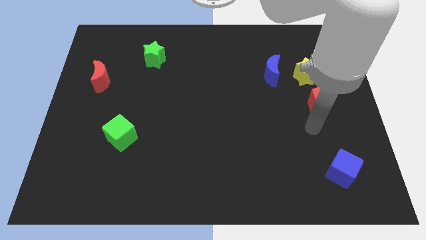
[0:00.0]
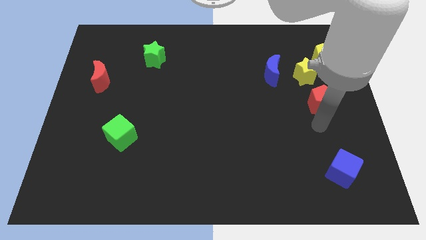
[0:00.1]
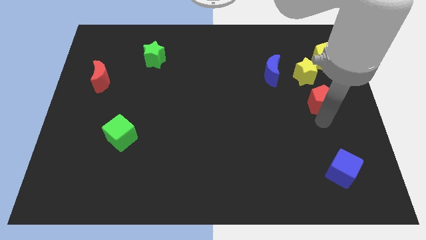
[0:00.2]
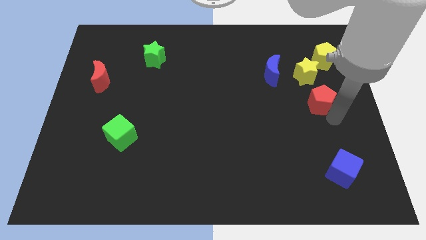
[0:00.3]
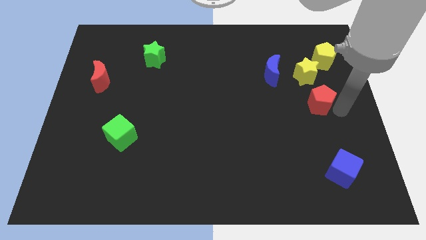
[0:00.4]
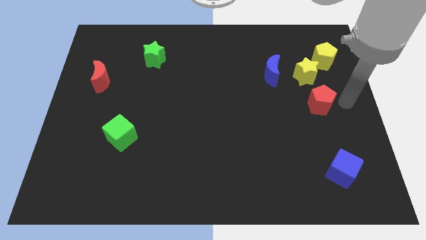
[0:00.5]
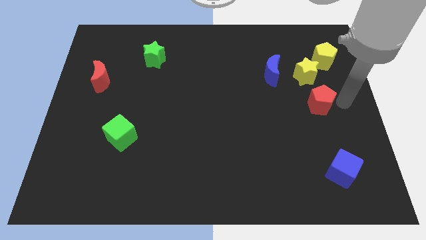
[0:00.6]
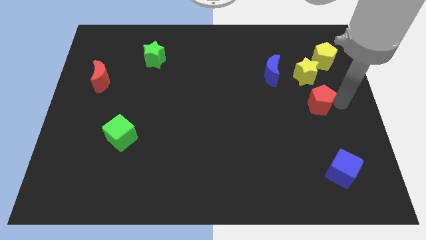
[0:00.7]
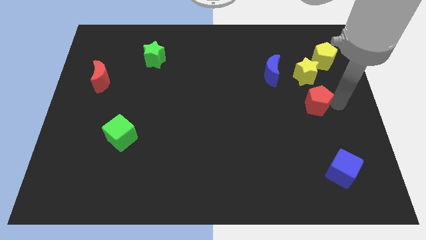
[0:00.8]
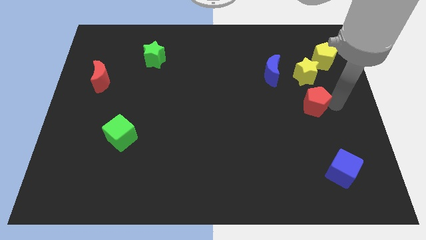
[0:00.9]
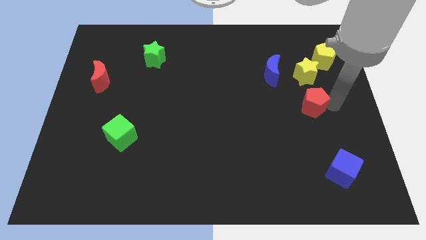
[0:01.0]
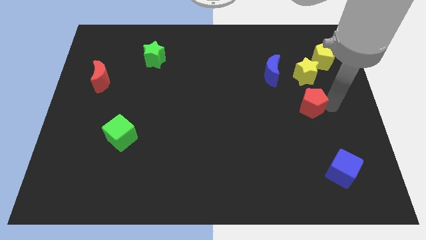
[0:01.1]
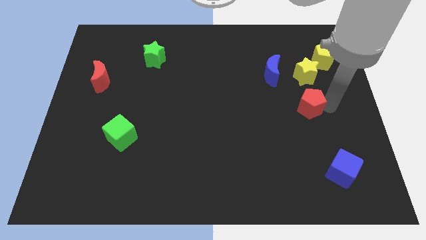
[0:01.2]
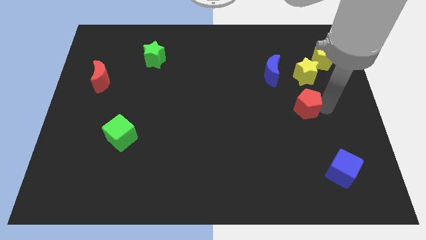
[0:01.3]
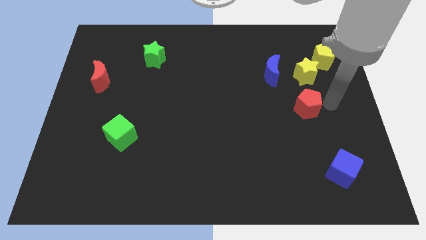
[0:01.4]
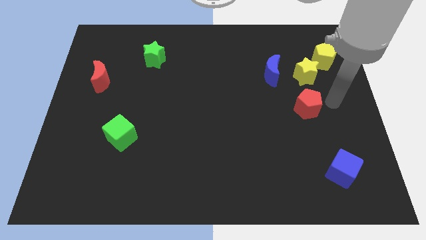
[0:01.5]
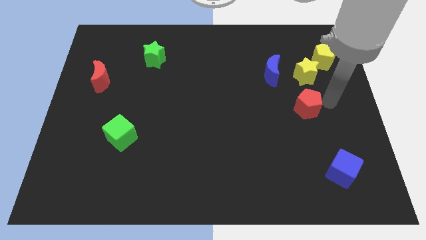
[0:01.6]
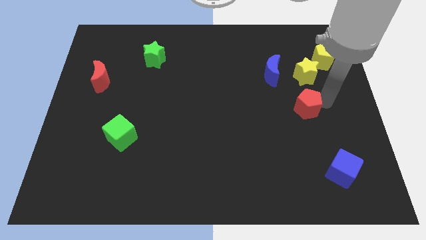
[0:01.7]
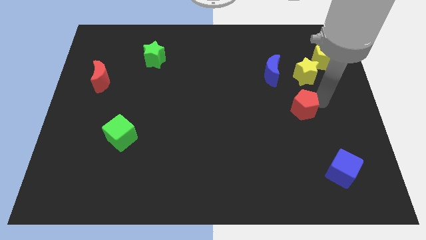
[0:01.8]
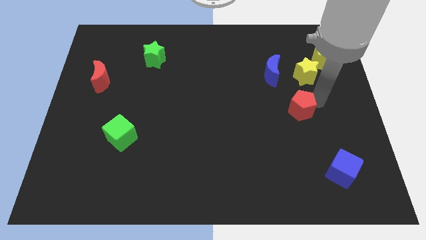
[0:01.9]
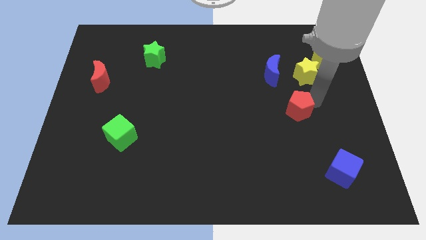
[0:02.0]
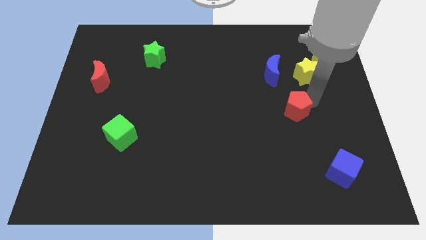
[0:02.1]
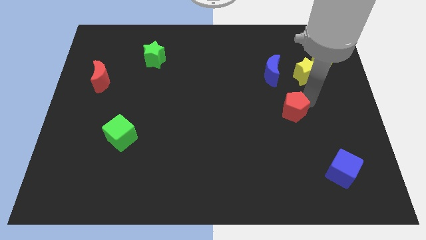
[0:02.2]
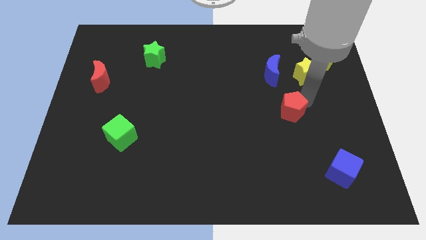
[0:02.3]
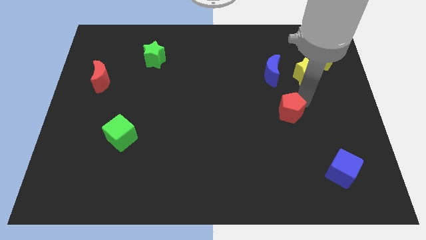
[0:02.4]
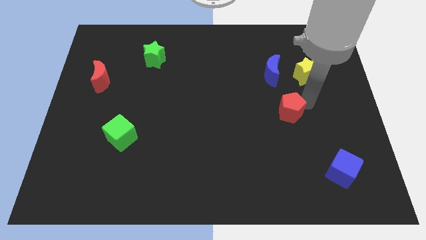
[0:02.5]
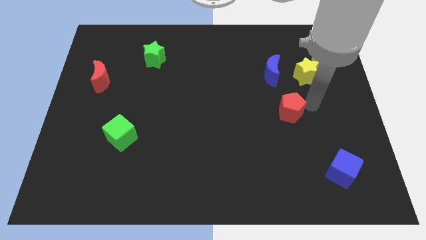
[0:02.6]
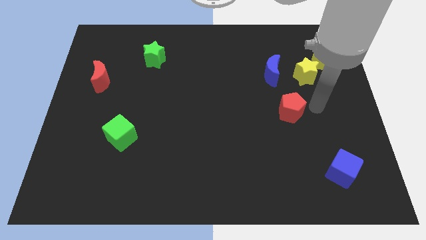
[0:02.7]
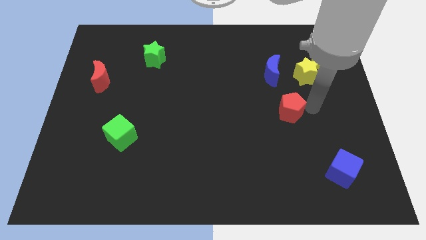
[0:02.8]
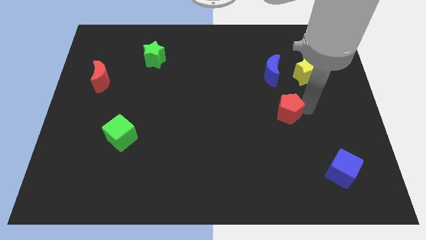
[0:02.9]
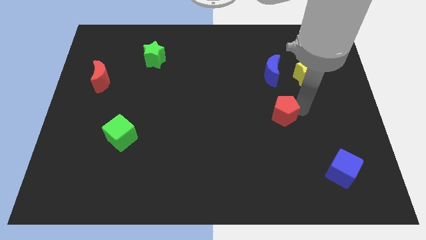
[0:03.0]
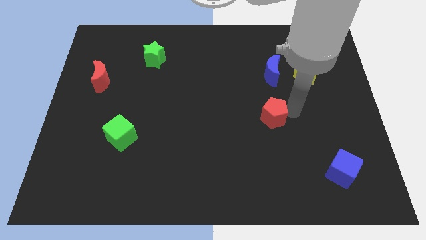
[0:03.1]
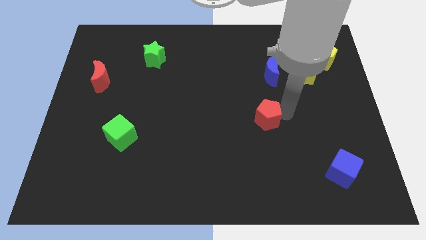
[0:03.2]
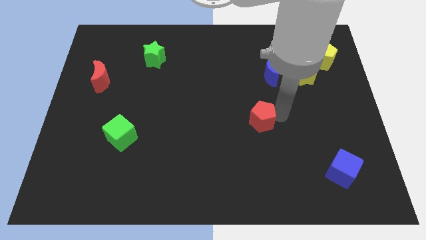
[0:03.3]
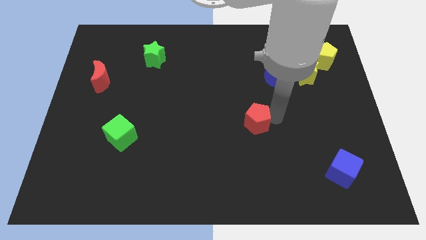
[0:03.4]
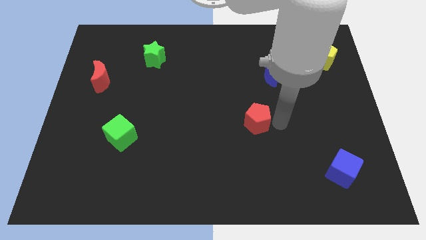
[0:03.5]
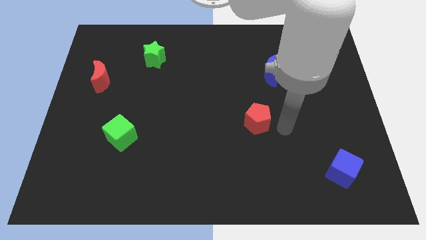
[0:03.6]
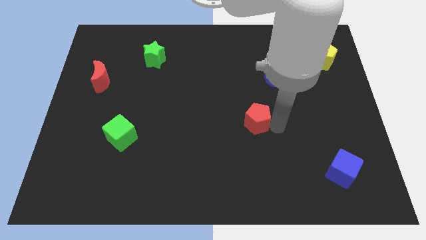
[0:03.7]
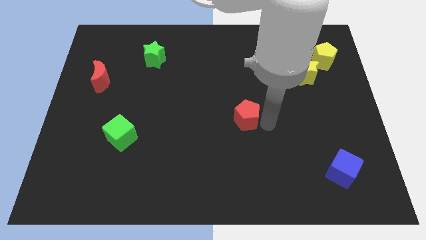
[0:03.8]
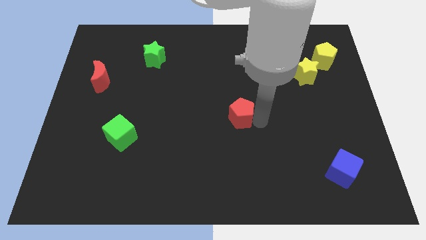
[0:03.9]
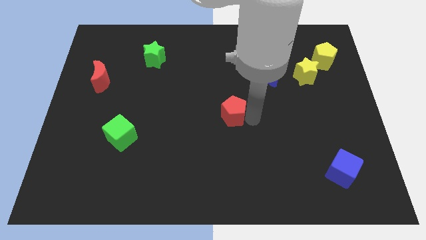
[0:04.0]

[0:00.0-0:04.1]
push the red pentagon left

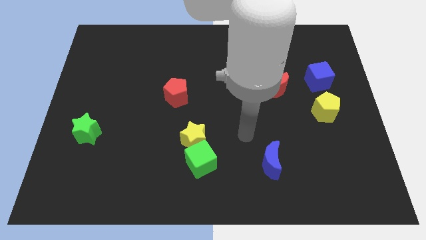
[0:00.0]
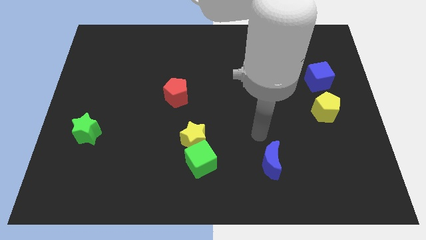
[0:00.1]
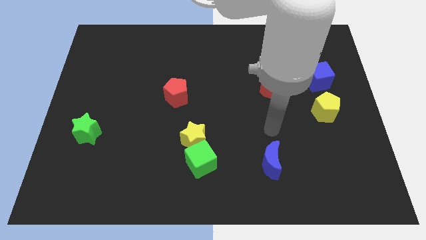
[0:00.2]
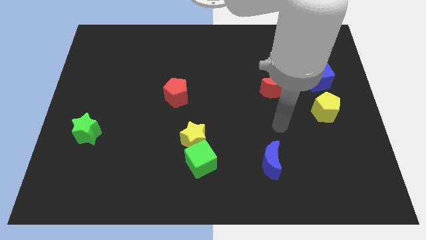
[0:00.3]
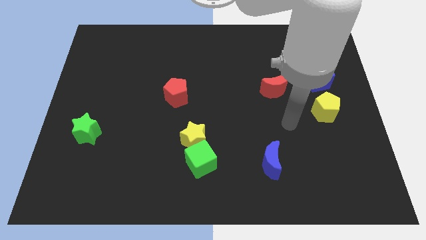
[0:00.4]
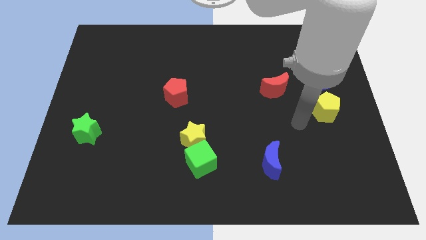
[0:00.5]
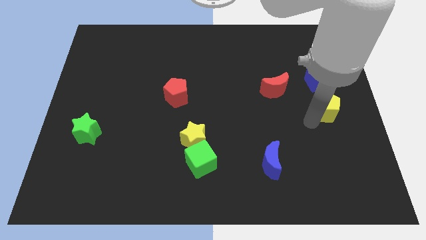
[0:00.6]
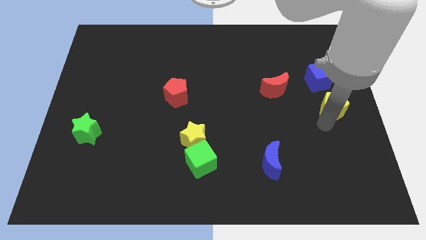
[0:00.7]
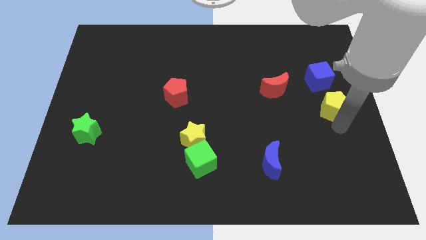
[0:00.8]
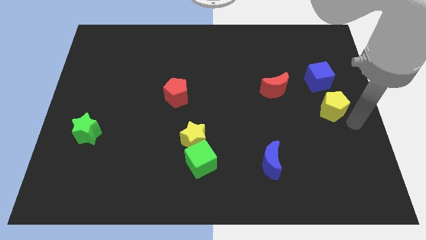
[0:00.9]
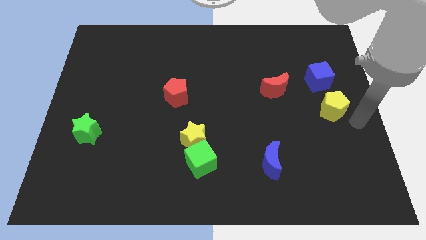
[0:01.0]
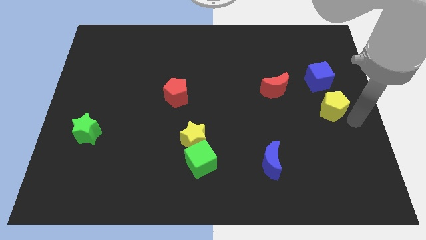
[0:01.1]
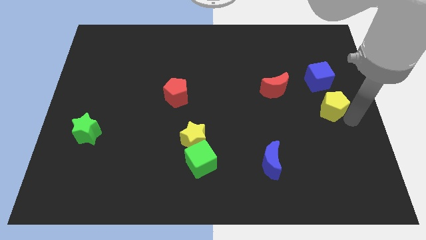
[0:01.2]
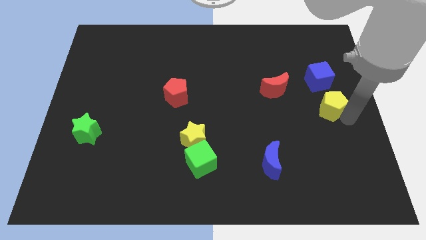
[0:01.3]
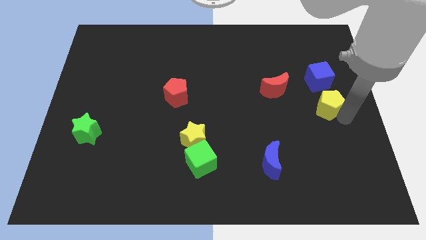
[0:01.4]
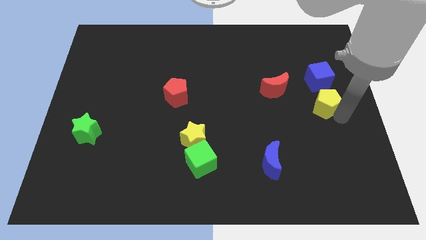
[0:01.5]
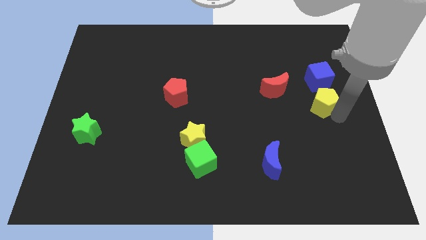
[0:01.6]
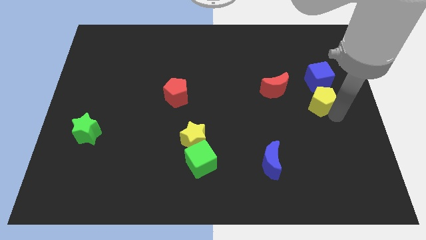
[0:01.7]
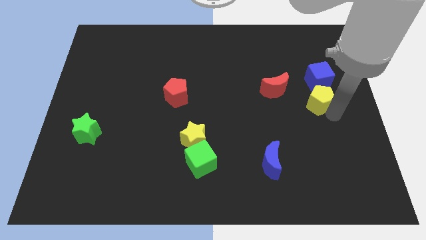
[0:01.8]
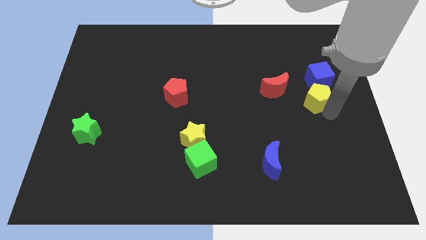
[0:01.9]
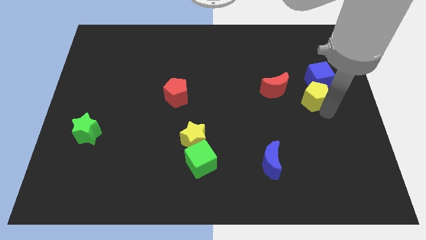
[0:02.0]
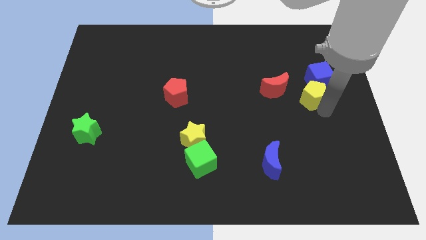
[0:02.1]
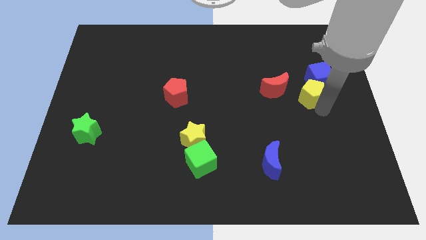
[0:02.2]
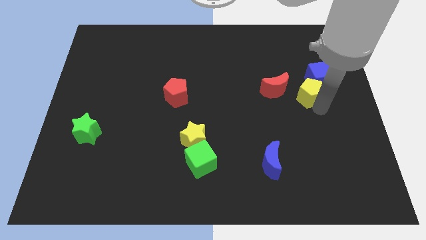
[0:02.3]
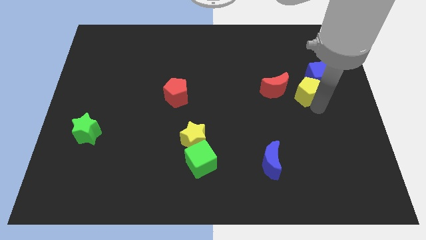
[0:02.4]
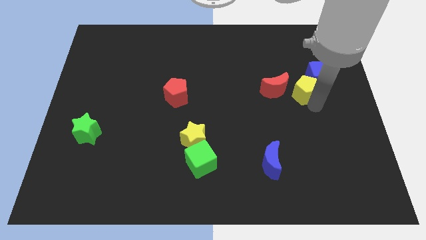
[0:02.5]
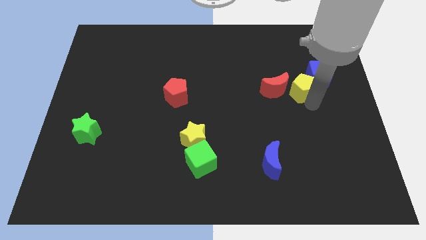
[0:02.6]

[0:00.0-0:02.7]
slide the yellow pentagon a bit upwards and left

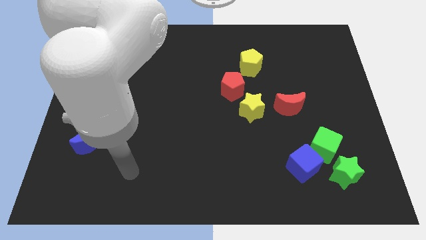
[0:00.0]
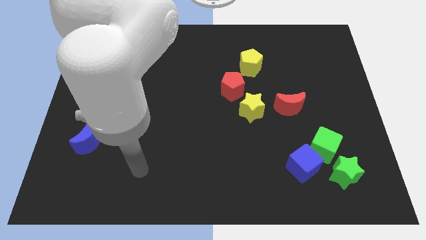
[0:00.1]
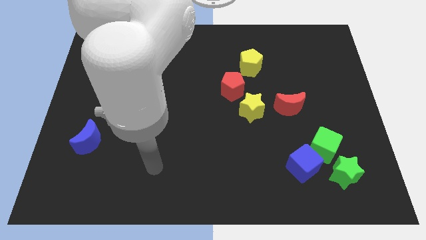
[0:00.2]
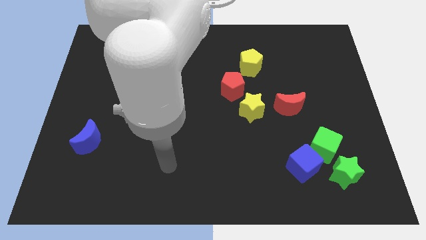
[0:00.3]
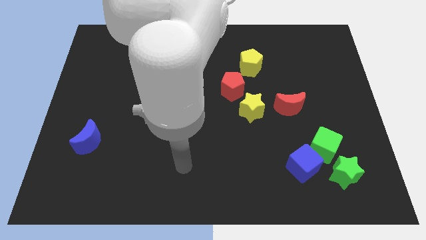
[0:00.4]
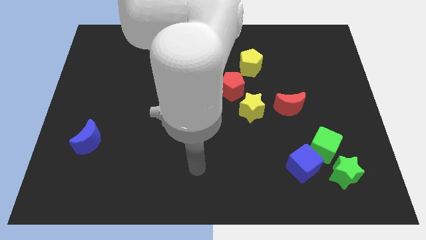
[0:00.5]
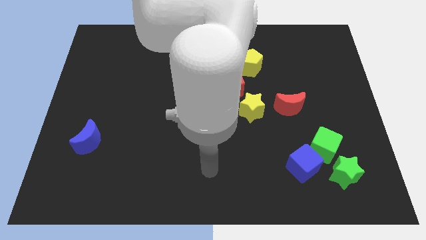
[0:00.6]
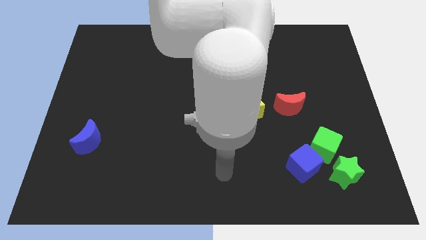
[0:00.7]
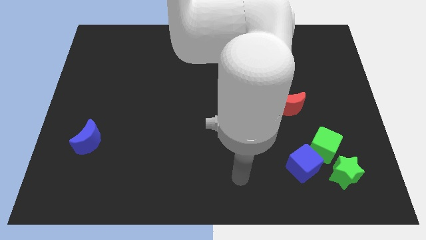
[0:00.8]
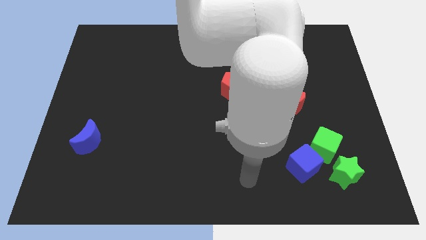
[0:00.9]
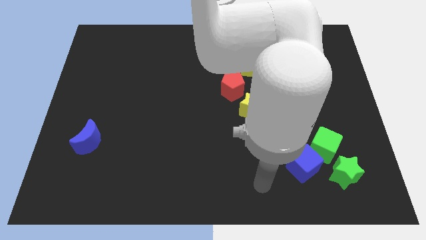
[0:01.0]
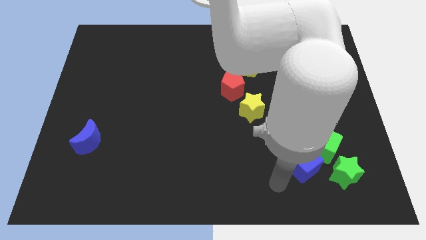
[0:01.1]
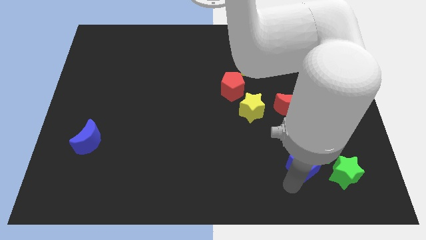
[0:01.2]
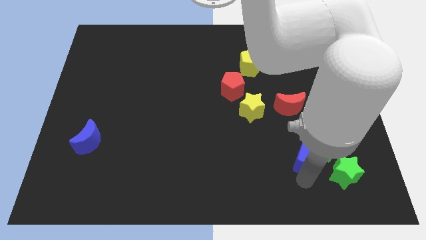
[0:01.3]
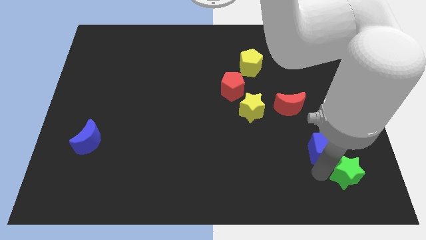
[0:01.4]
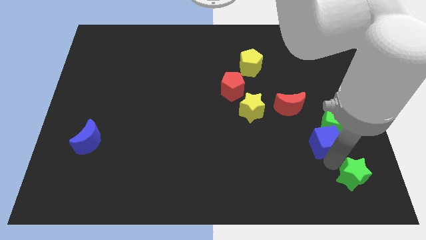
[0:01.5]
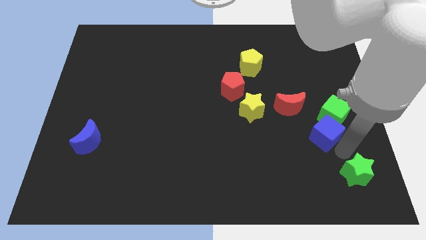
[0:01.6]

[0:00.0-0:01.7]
slide the green cube up a bit
